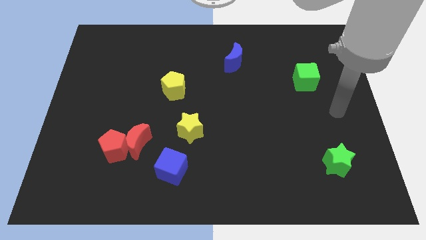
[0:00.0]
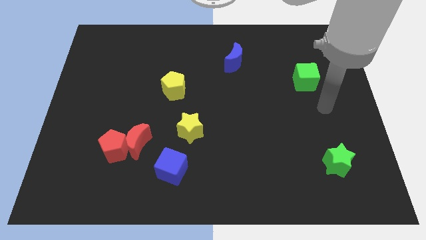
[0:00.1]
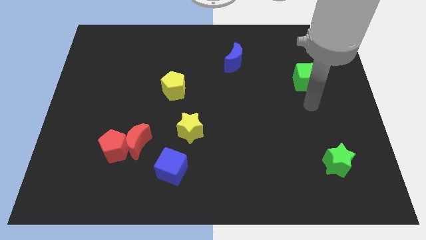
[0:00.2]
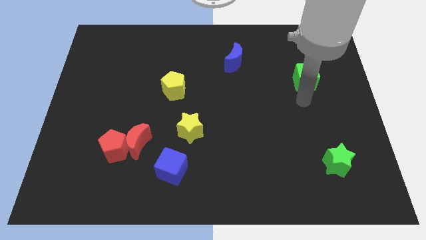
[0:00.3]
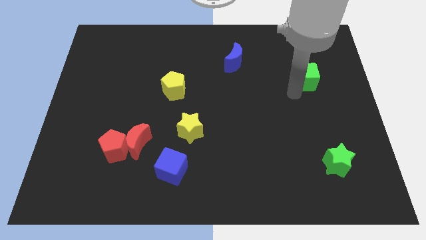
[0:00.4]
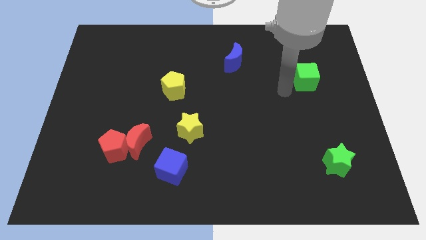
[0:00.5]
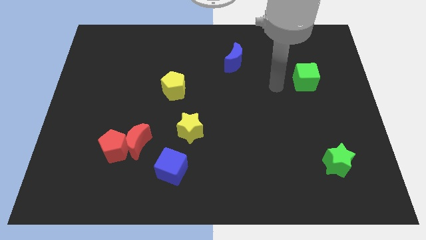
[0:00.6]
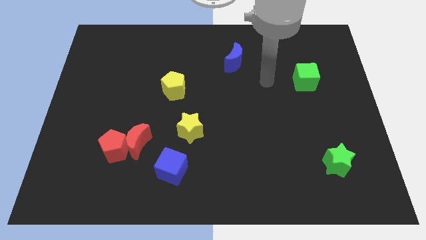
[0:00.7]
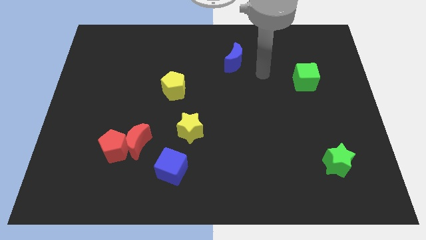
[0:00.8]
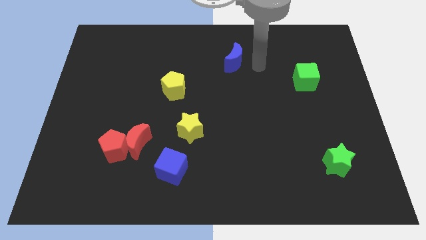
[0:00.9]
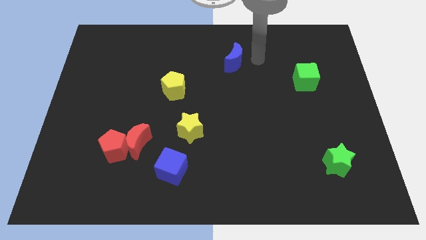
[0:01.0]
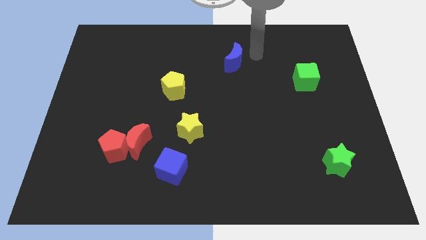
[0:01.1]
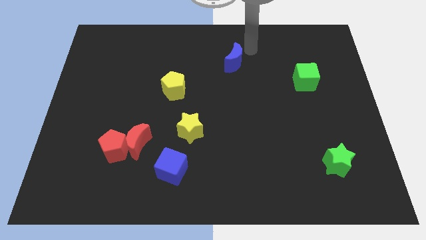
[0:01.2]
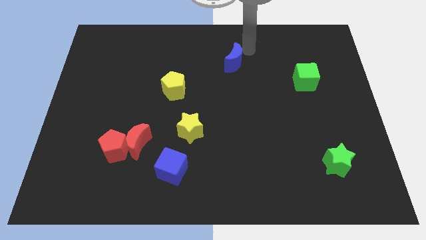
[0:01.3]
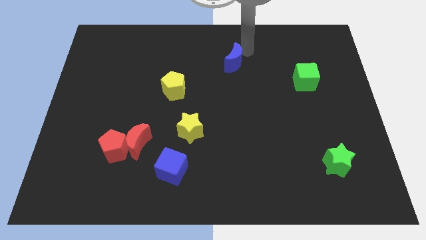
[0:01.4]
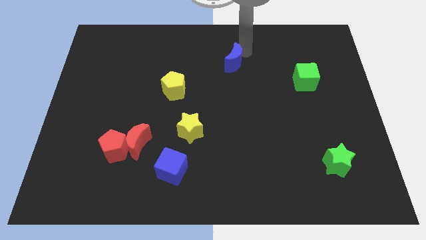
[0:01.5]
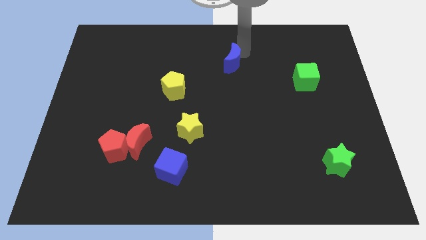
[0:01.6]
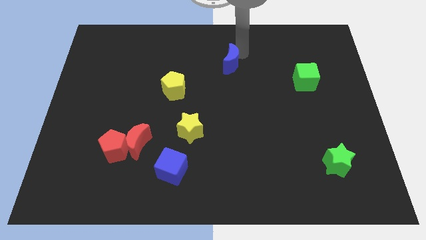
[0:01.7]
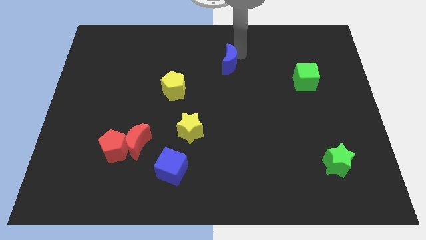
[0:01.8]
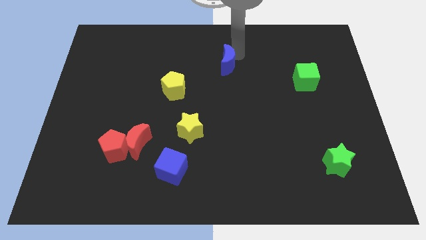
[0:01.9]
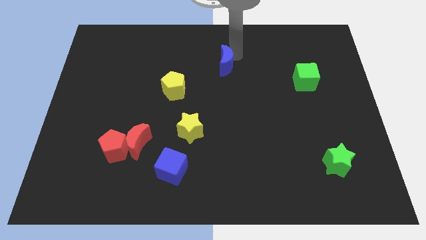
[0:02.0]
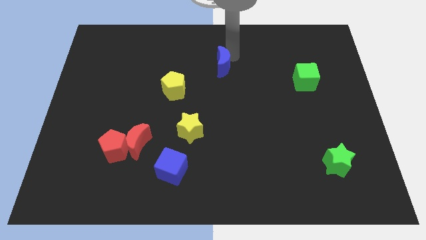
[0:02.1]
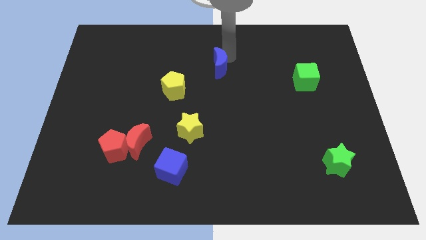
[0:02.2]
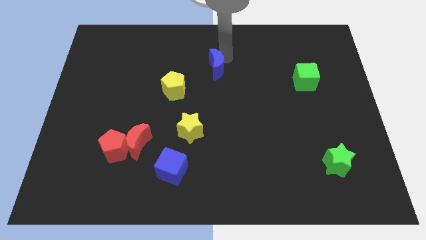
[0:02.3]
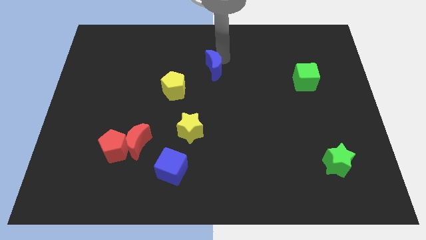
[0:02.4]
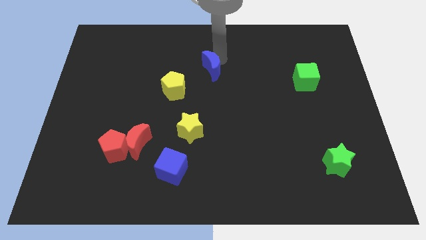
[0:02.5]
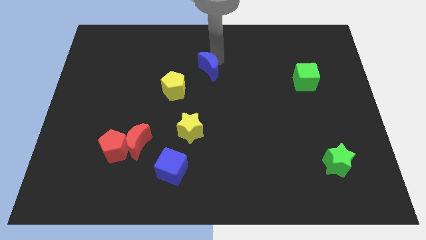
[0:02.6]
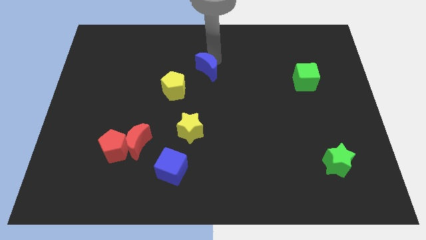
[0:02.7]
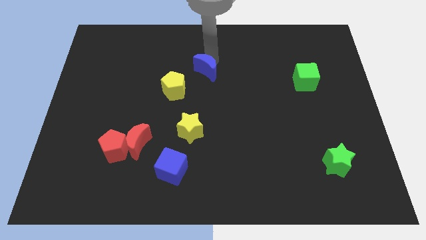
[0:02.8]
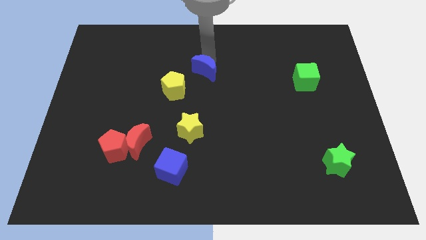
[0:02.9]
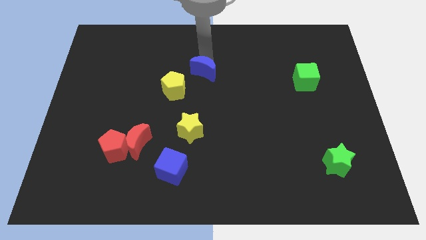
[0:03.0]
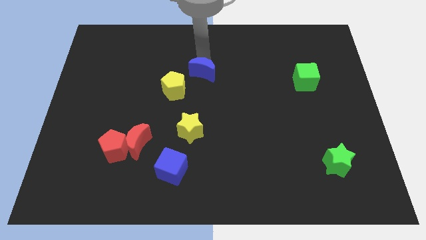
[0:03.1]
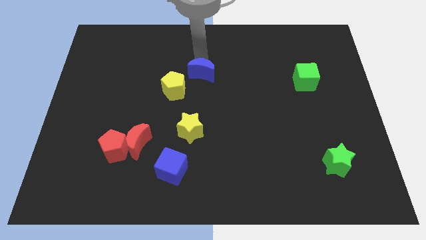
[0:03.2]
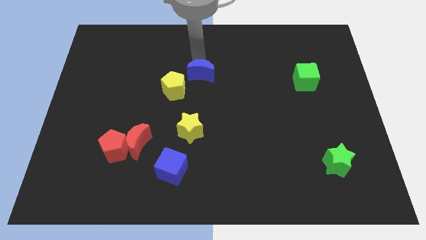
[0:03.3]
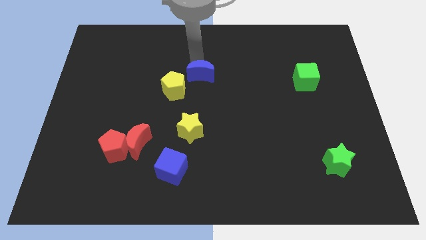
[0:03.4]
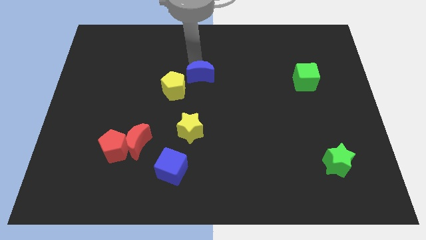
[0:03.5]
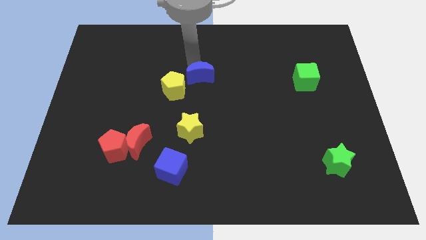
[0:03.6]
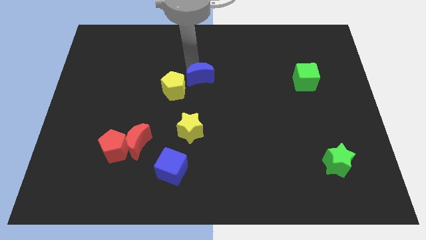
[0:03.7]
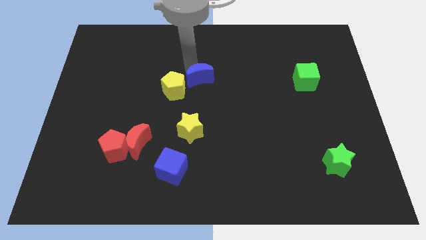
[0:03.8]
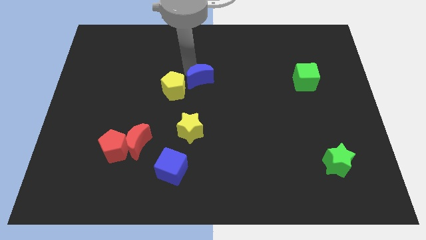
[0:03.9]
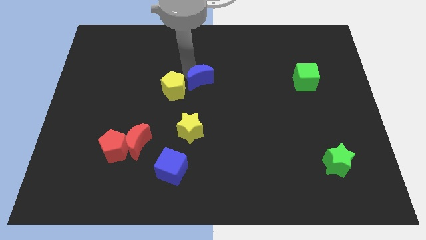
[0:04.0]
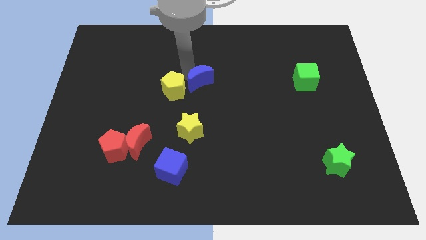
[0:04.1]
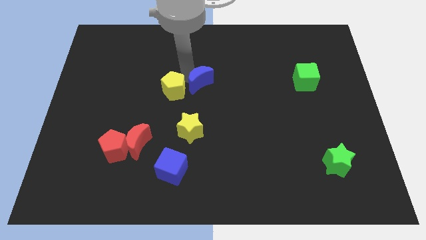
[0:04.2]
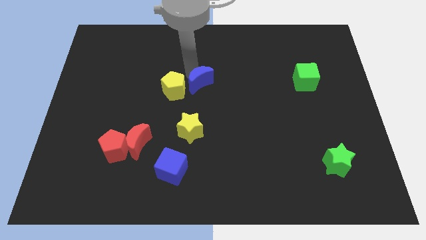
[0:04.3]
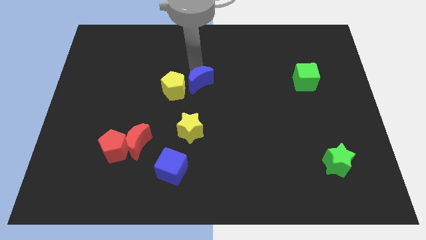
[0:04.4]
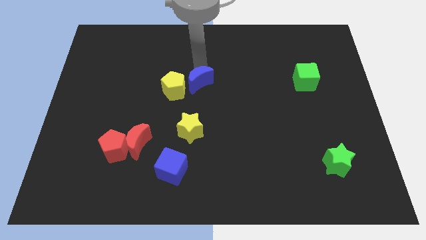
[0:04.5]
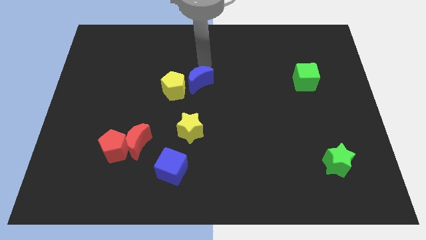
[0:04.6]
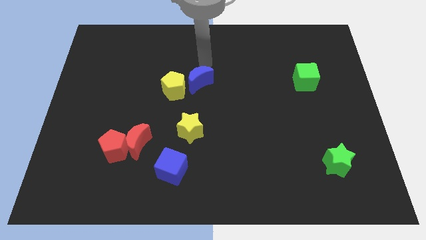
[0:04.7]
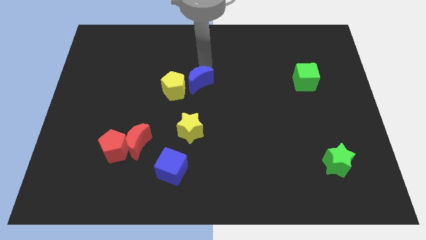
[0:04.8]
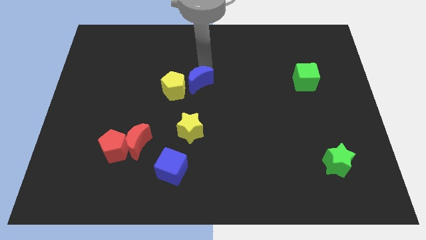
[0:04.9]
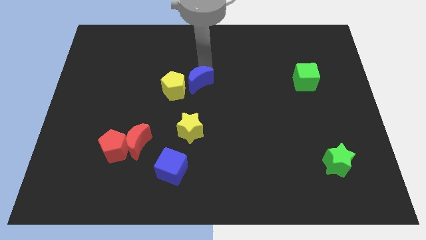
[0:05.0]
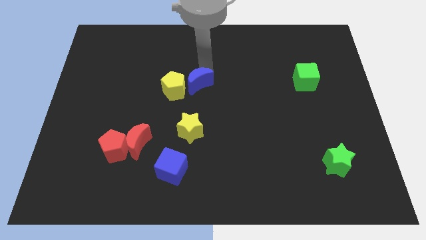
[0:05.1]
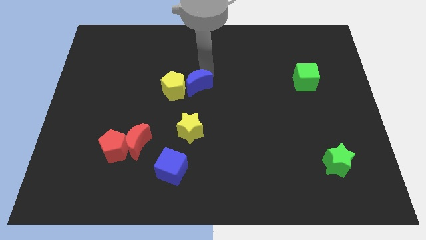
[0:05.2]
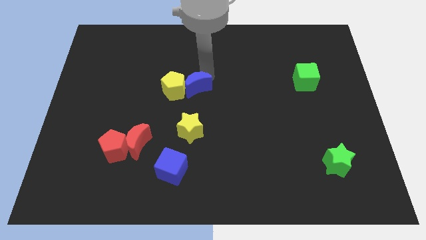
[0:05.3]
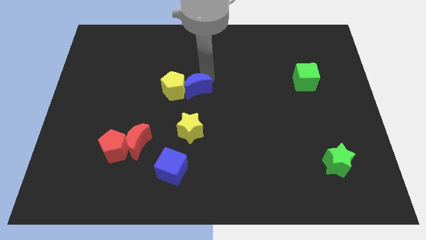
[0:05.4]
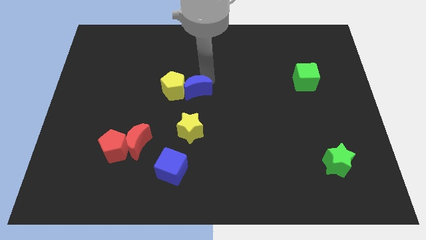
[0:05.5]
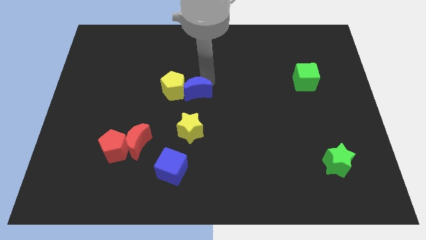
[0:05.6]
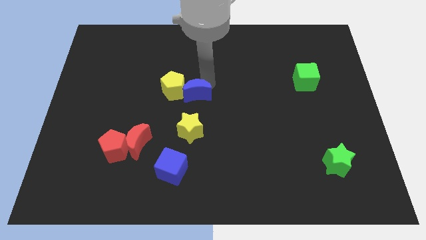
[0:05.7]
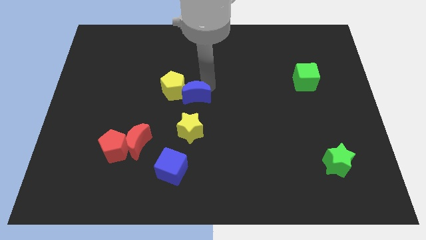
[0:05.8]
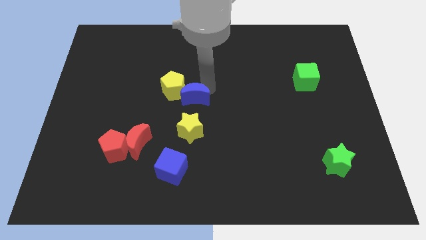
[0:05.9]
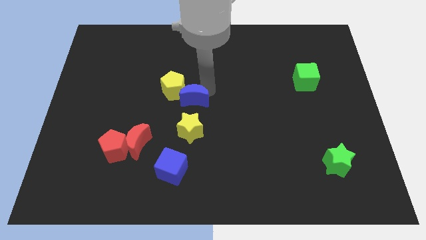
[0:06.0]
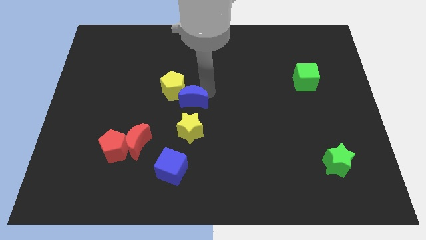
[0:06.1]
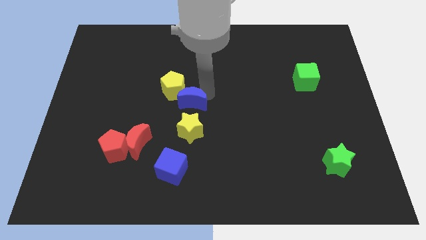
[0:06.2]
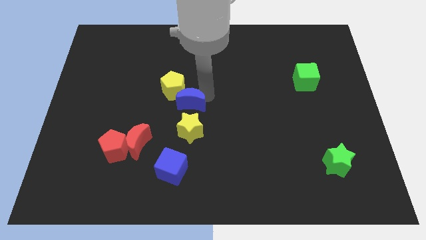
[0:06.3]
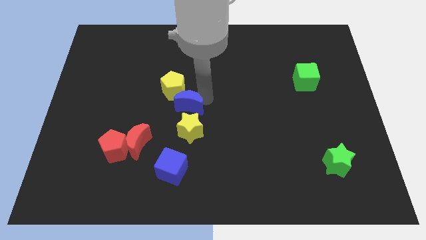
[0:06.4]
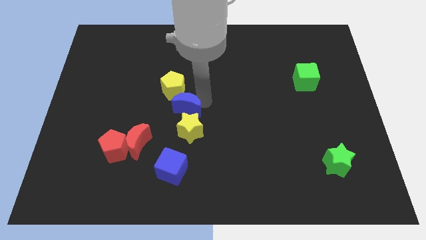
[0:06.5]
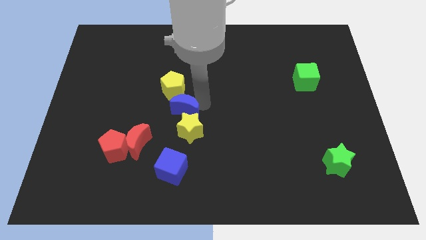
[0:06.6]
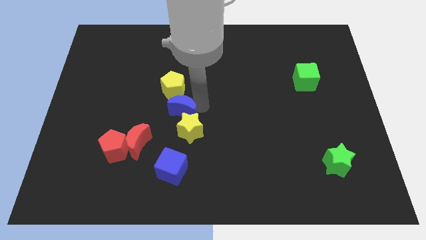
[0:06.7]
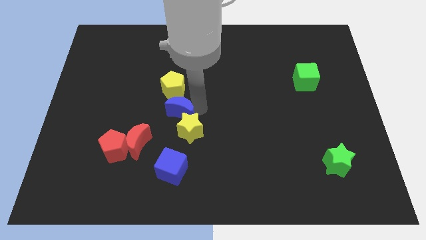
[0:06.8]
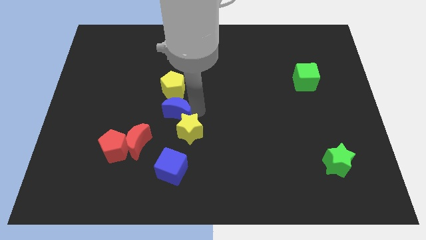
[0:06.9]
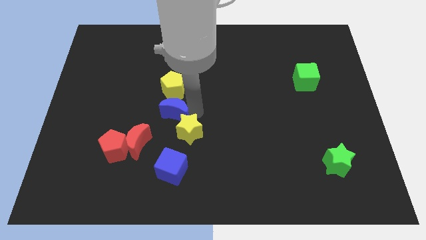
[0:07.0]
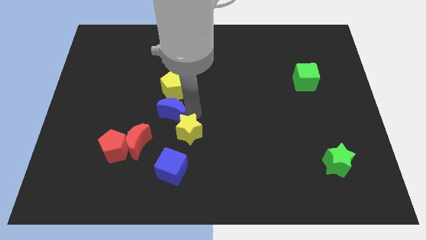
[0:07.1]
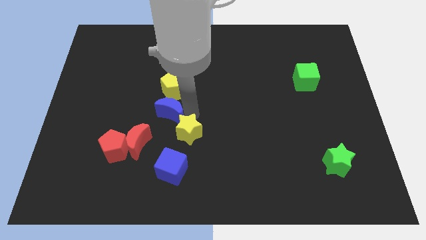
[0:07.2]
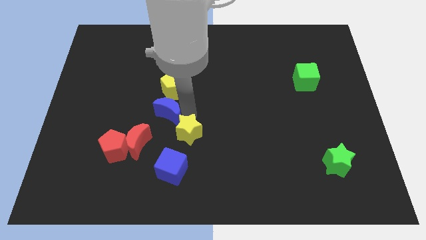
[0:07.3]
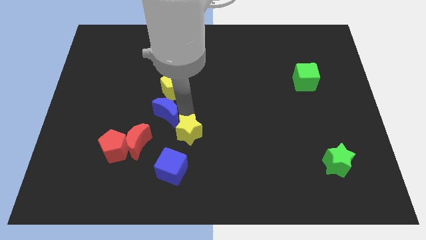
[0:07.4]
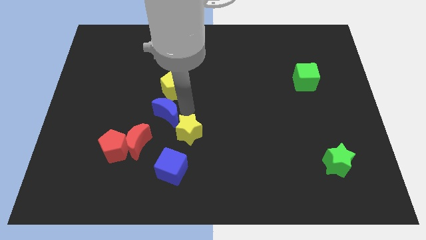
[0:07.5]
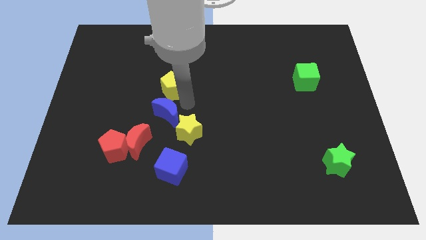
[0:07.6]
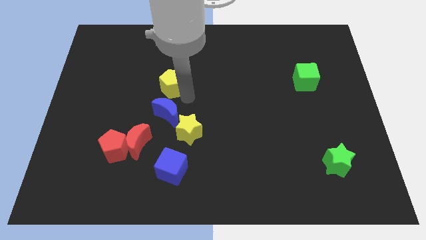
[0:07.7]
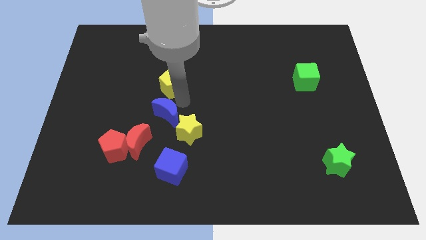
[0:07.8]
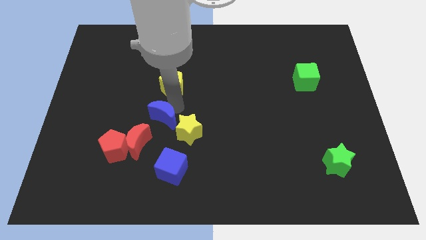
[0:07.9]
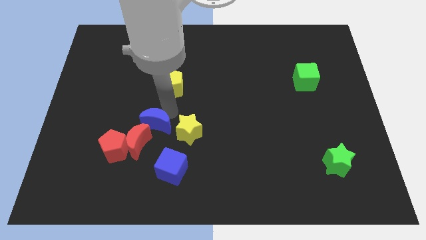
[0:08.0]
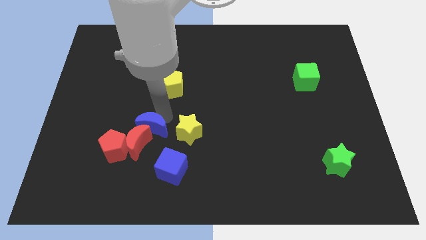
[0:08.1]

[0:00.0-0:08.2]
slide the blue moon towards the red moon
